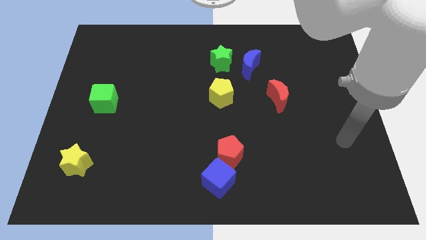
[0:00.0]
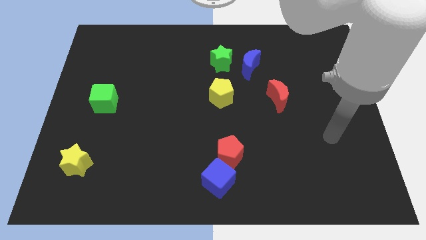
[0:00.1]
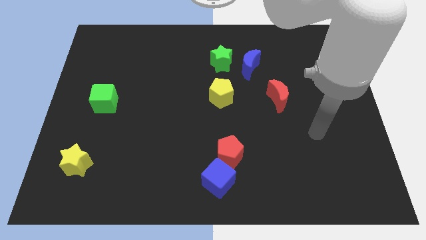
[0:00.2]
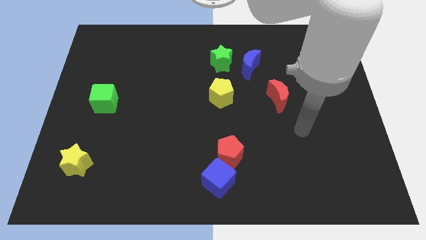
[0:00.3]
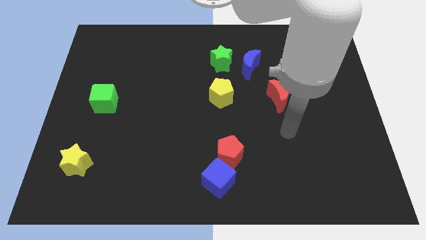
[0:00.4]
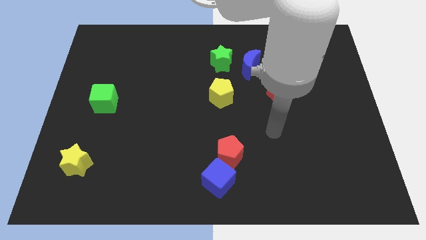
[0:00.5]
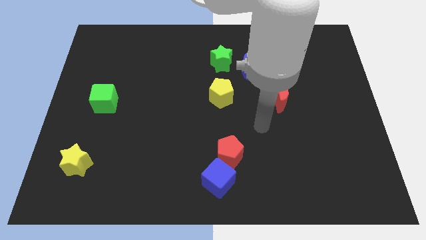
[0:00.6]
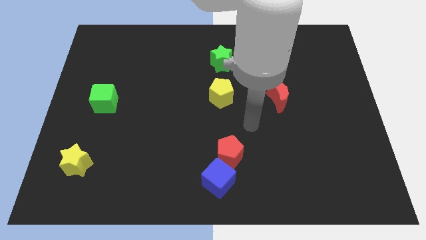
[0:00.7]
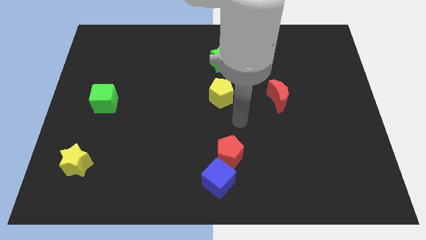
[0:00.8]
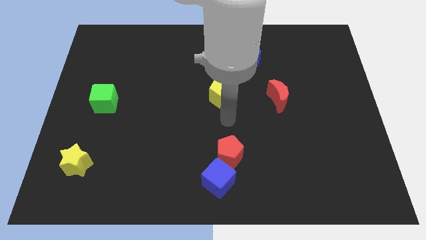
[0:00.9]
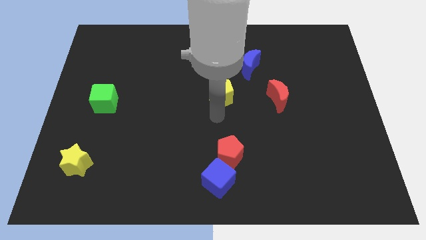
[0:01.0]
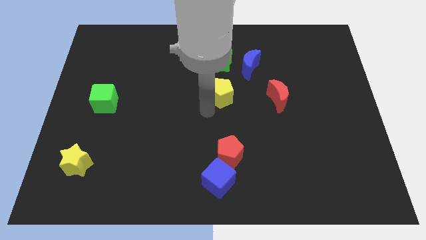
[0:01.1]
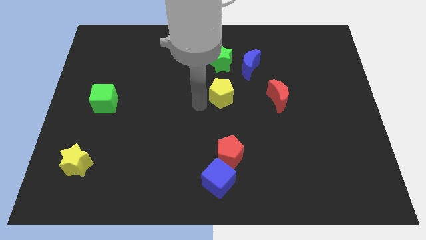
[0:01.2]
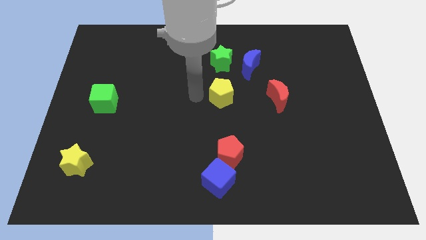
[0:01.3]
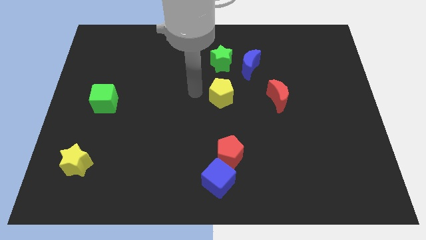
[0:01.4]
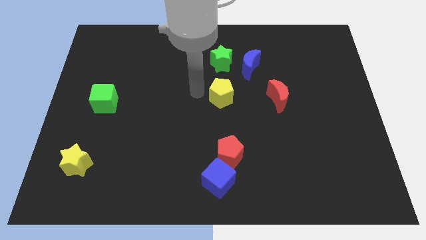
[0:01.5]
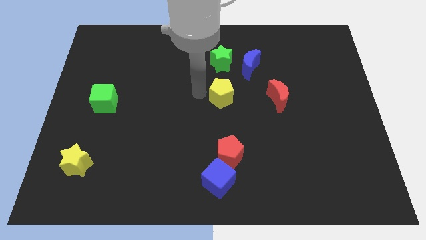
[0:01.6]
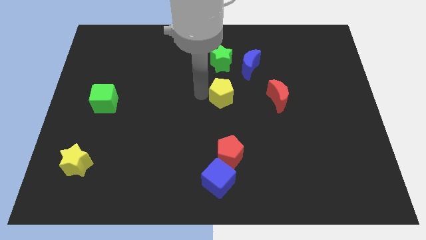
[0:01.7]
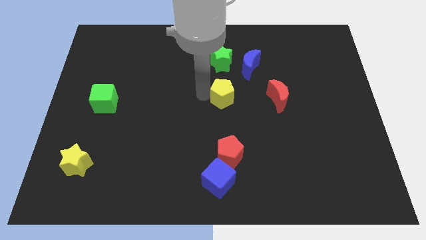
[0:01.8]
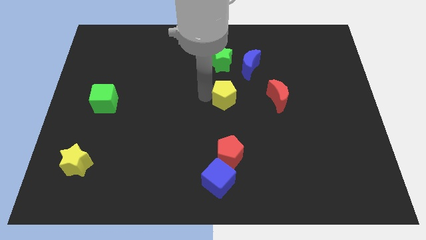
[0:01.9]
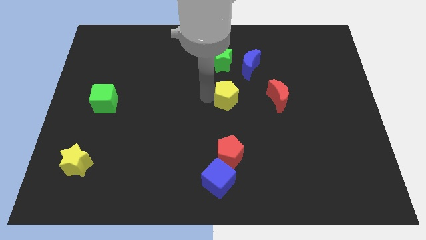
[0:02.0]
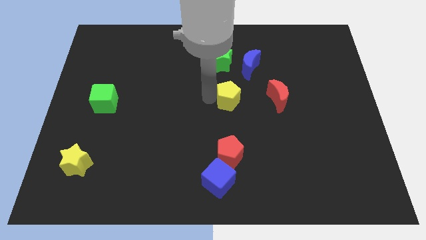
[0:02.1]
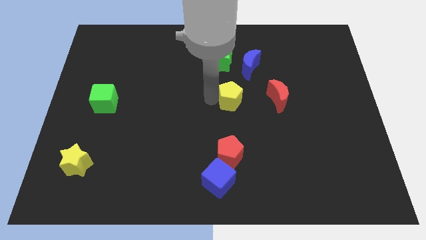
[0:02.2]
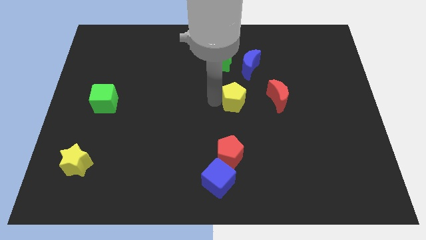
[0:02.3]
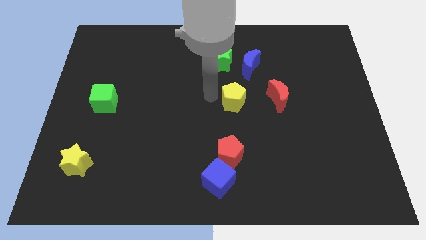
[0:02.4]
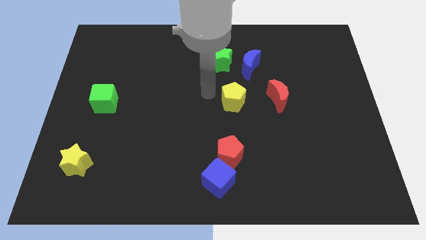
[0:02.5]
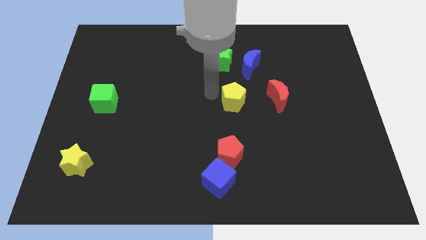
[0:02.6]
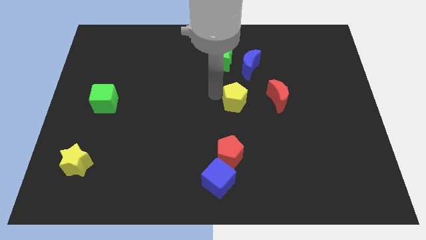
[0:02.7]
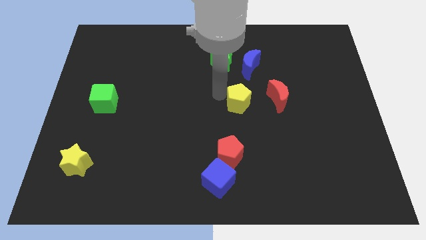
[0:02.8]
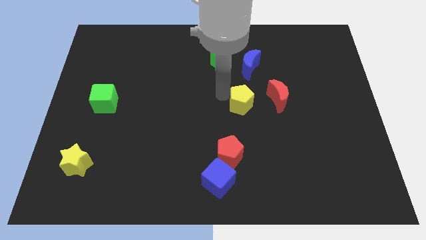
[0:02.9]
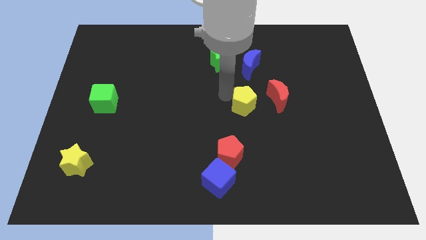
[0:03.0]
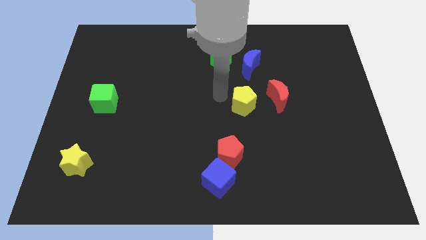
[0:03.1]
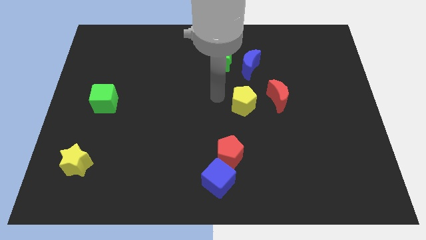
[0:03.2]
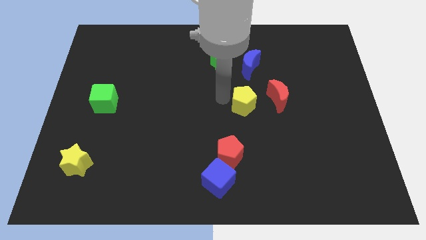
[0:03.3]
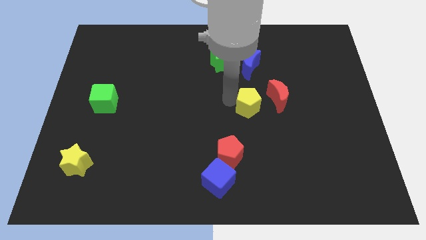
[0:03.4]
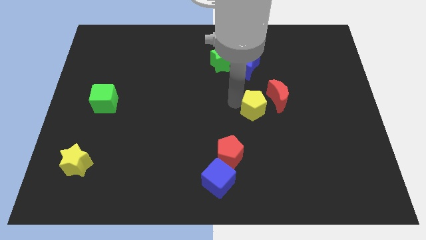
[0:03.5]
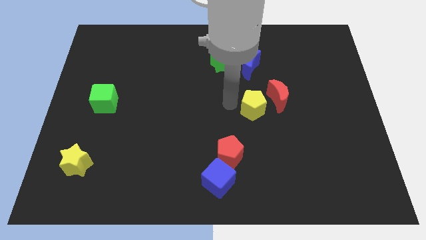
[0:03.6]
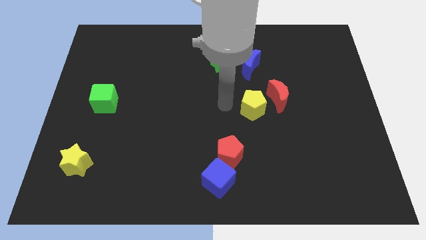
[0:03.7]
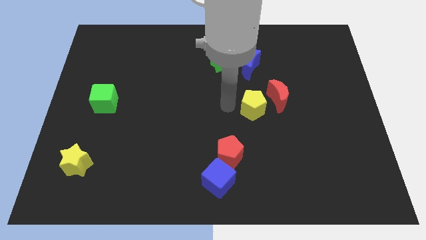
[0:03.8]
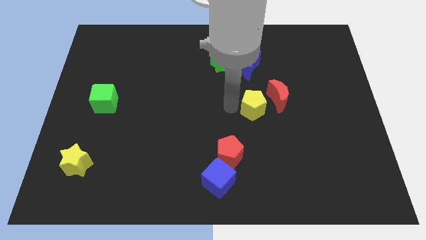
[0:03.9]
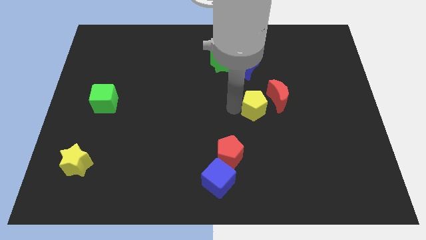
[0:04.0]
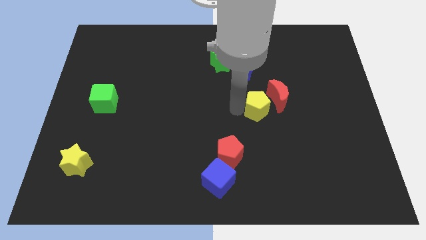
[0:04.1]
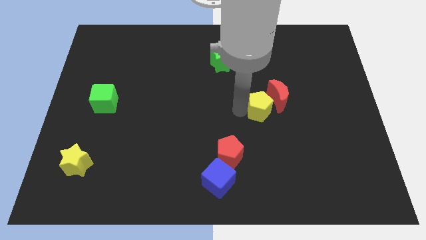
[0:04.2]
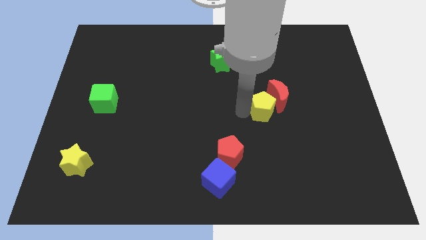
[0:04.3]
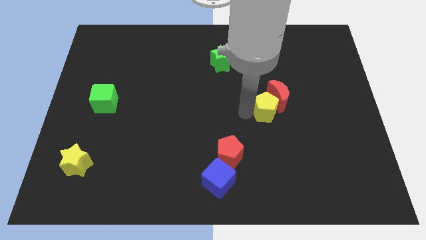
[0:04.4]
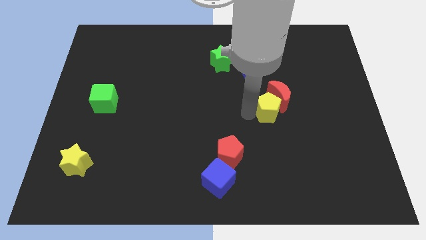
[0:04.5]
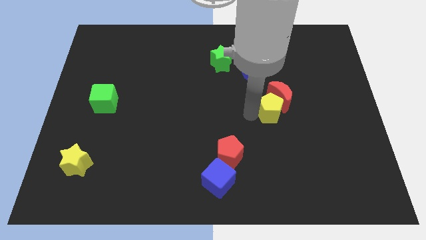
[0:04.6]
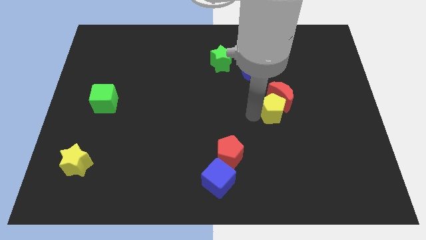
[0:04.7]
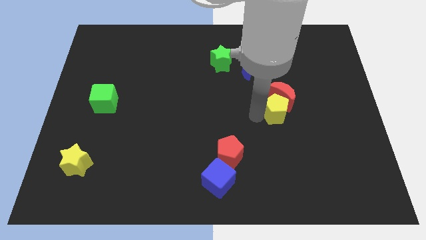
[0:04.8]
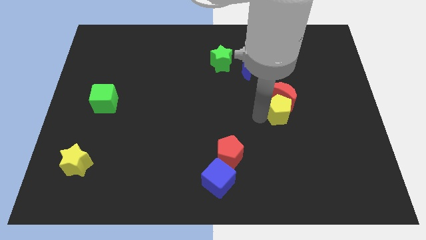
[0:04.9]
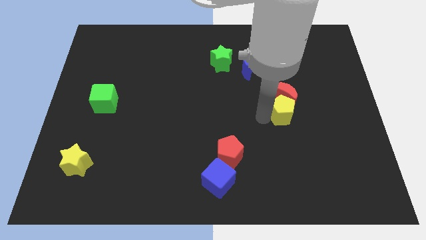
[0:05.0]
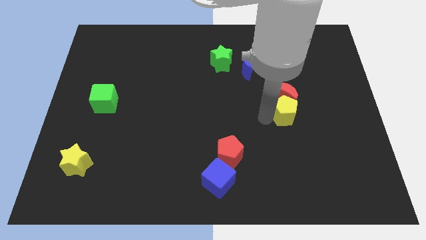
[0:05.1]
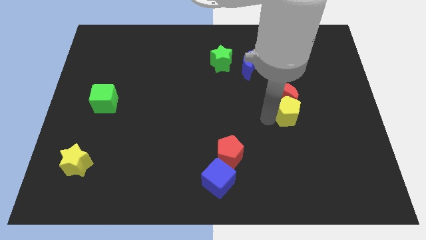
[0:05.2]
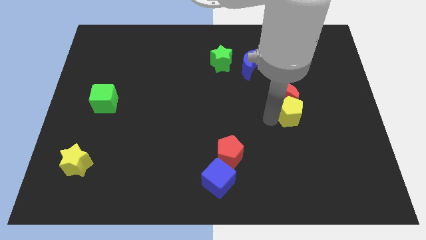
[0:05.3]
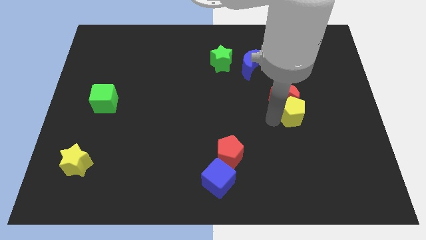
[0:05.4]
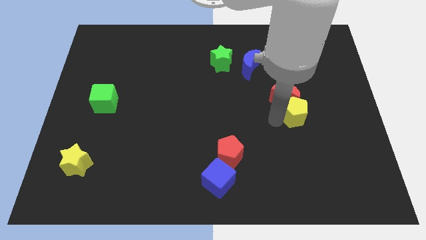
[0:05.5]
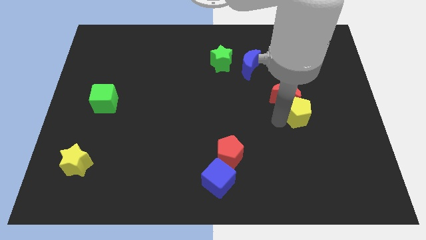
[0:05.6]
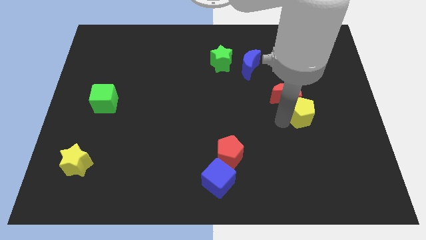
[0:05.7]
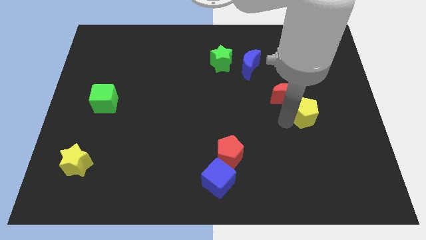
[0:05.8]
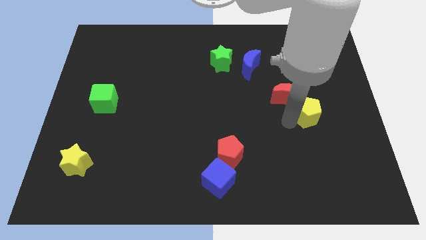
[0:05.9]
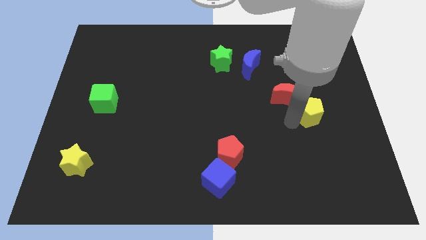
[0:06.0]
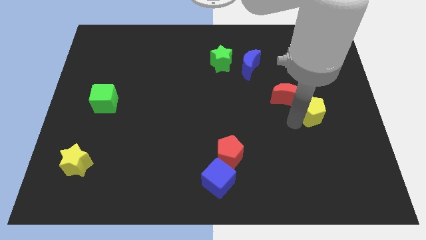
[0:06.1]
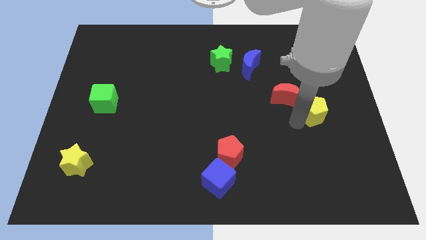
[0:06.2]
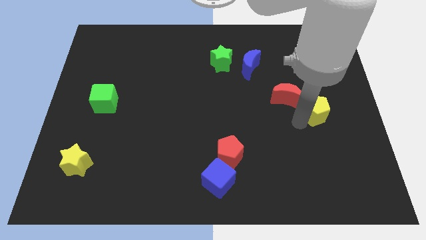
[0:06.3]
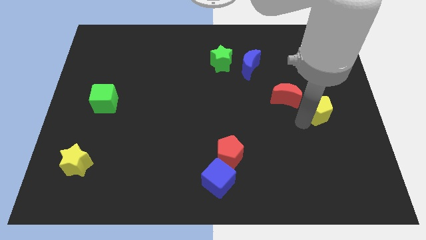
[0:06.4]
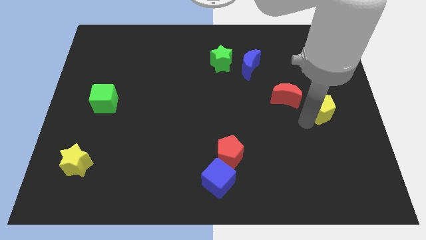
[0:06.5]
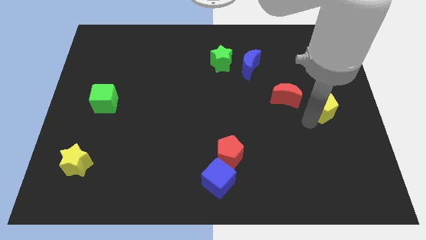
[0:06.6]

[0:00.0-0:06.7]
put the yellow pentagon to the right side of the board
